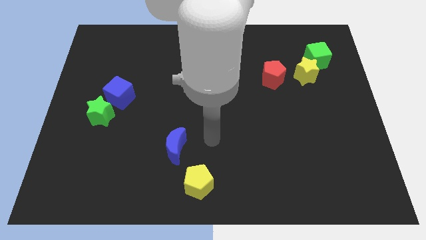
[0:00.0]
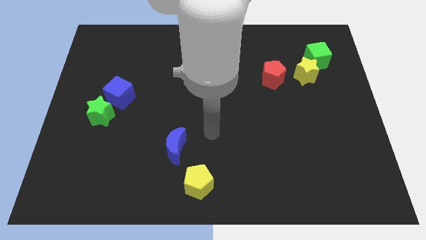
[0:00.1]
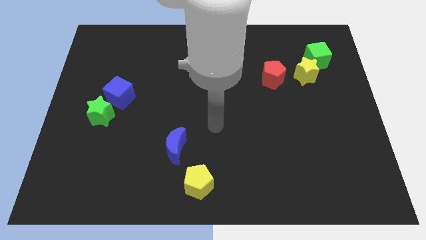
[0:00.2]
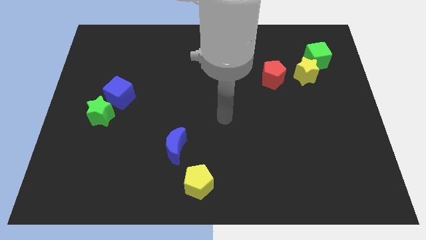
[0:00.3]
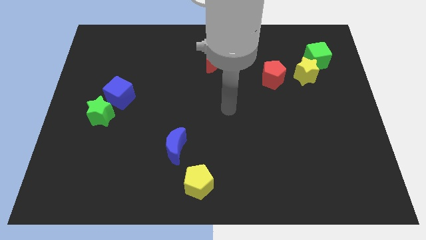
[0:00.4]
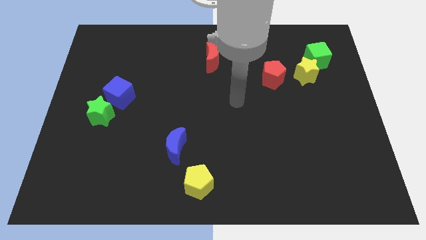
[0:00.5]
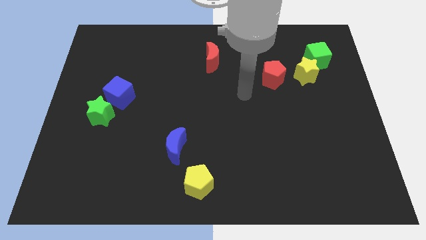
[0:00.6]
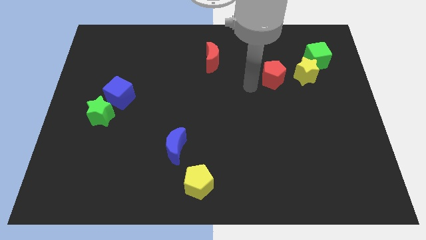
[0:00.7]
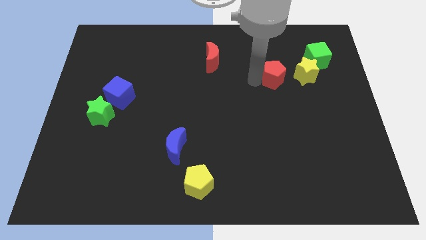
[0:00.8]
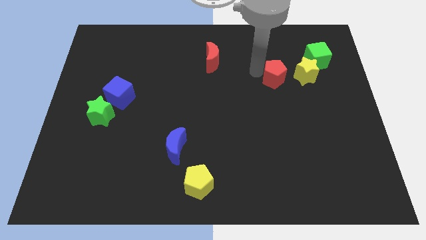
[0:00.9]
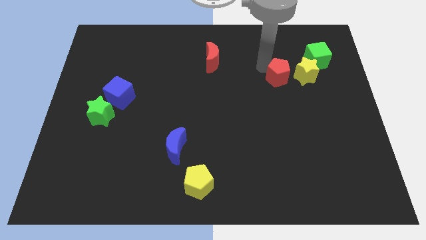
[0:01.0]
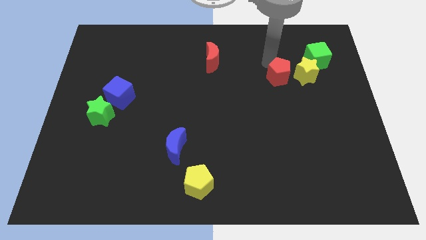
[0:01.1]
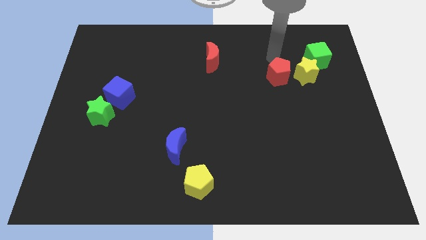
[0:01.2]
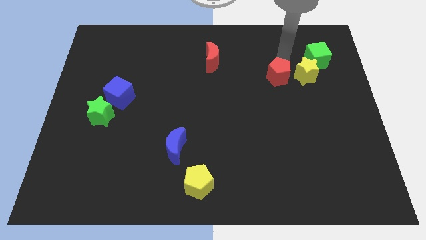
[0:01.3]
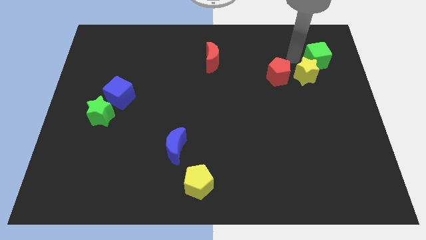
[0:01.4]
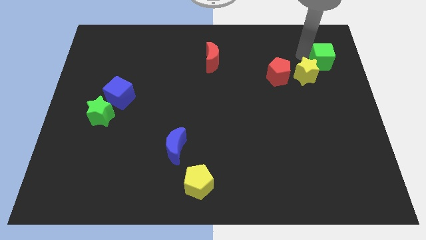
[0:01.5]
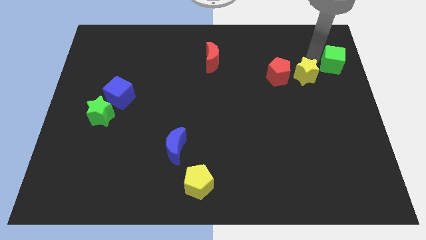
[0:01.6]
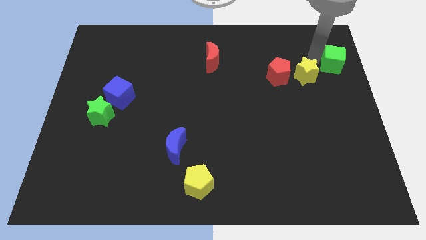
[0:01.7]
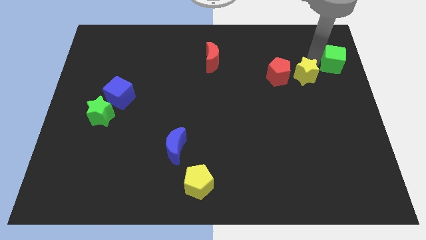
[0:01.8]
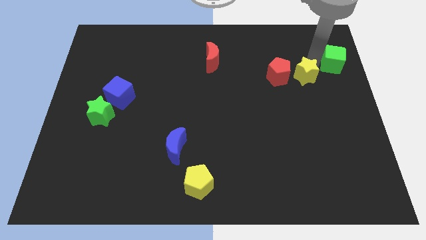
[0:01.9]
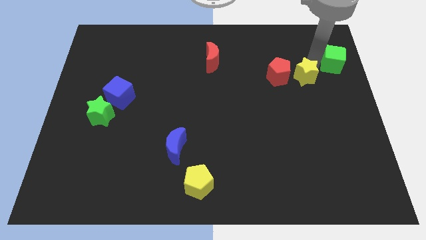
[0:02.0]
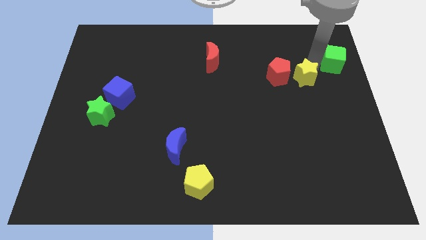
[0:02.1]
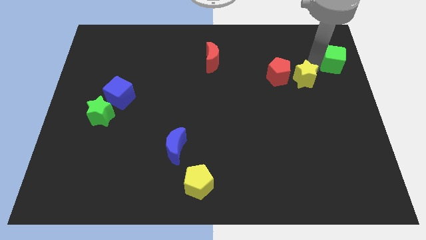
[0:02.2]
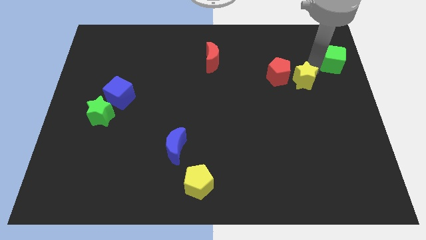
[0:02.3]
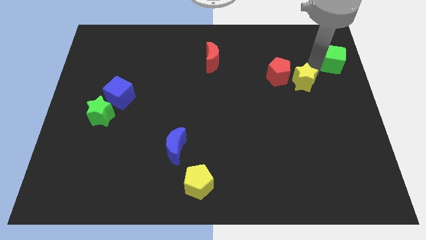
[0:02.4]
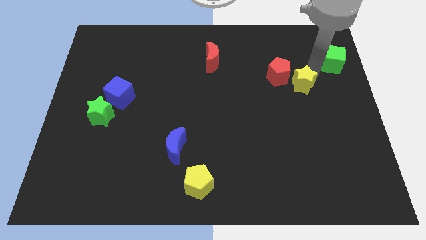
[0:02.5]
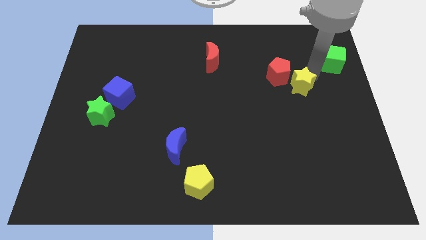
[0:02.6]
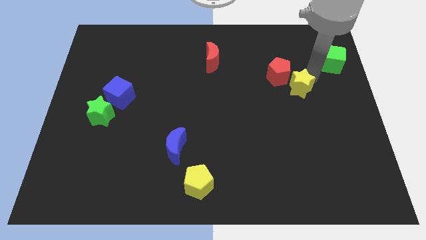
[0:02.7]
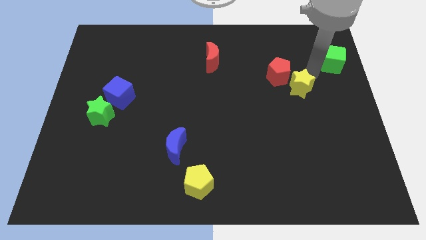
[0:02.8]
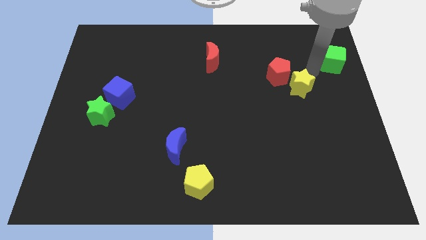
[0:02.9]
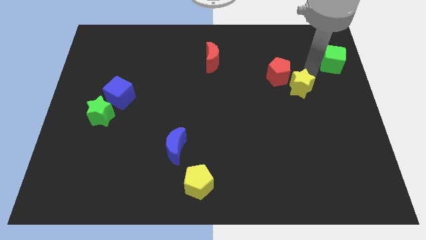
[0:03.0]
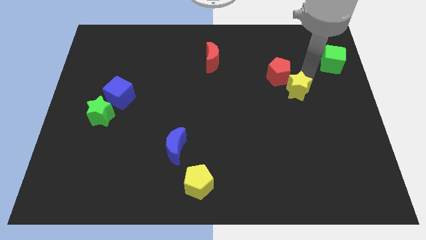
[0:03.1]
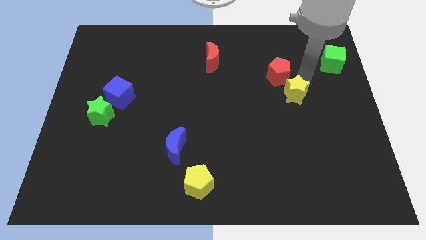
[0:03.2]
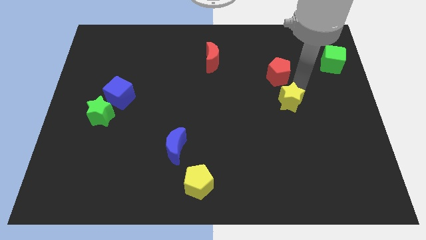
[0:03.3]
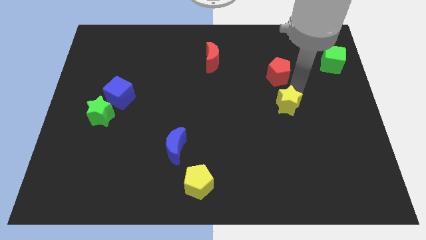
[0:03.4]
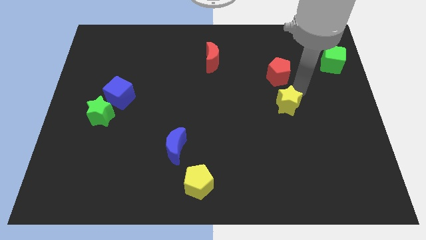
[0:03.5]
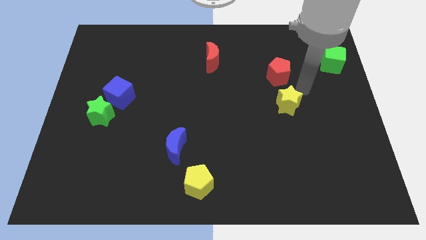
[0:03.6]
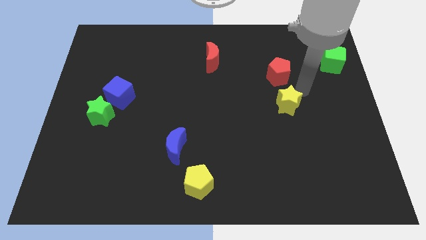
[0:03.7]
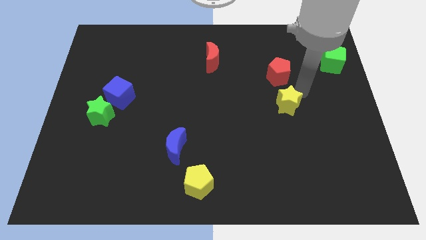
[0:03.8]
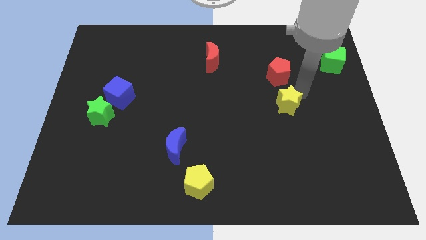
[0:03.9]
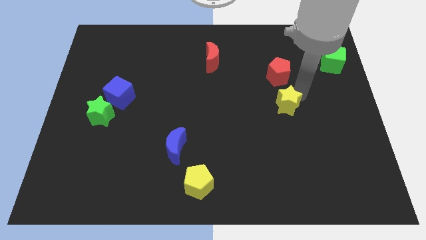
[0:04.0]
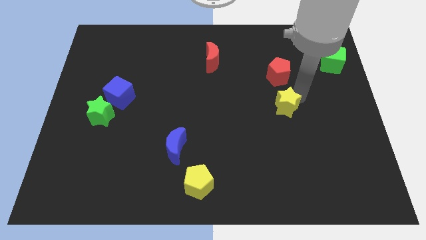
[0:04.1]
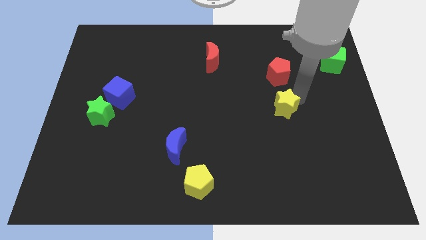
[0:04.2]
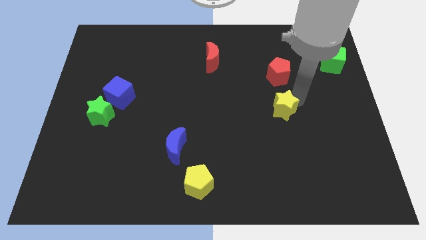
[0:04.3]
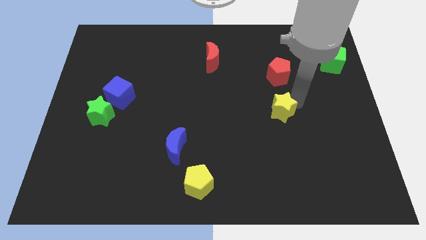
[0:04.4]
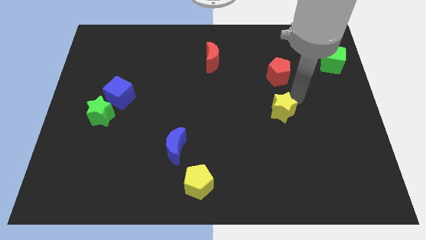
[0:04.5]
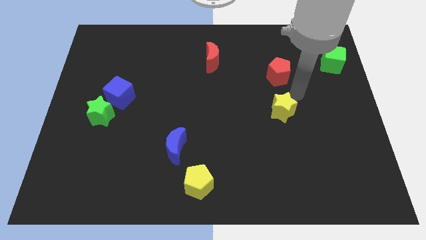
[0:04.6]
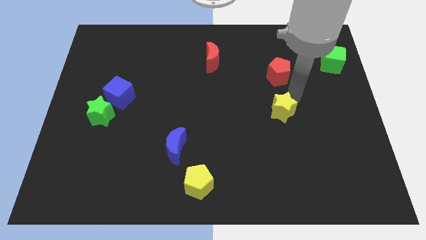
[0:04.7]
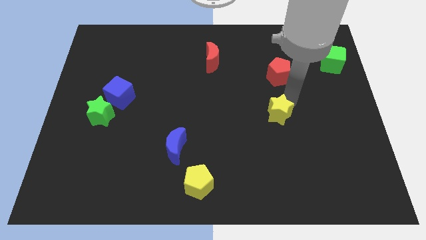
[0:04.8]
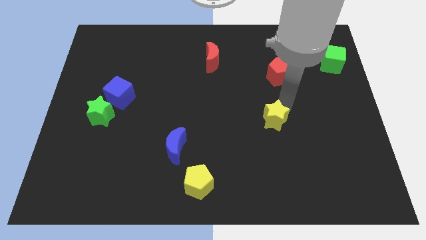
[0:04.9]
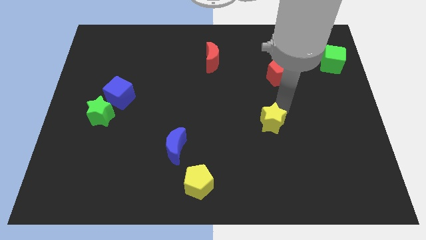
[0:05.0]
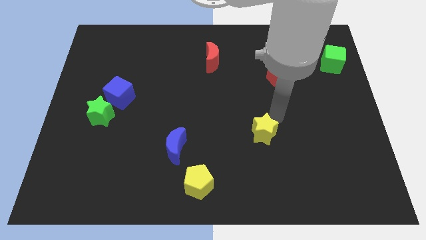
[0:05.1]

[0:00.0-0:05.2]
move the yellow star down and to the left diagonally

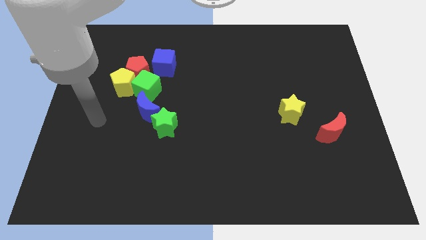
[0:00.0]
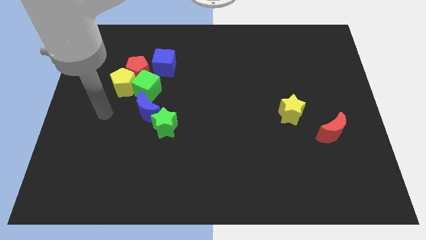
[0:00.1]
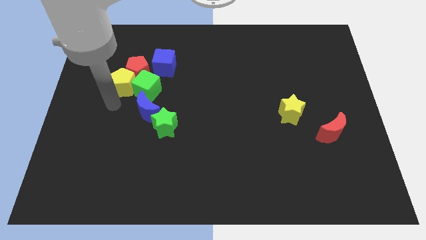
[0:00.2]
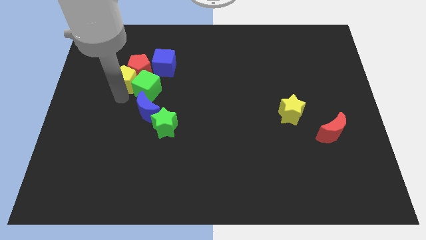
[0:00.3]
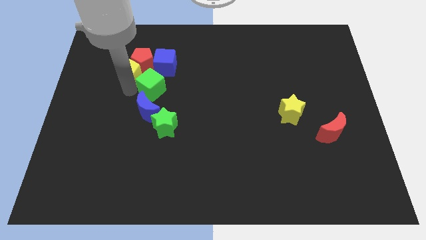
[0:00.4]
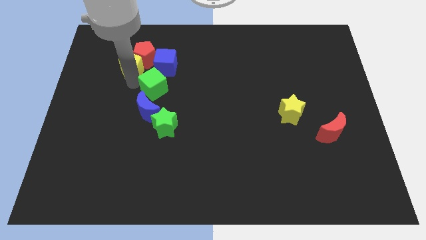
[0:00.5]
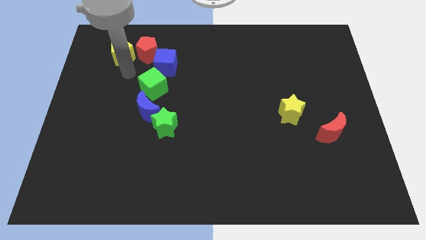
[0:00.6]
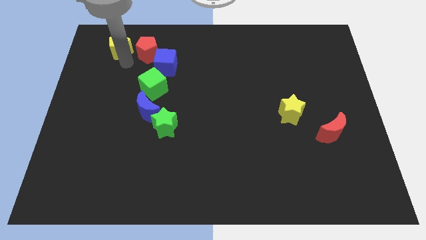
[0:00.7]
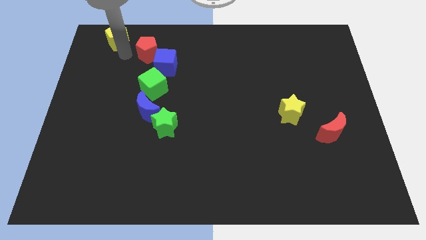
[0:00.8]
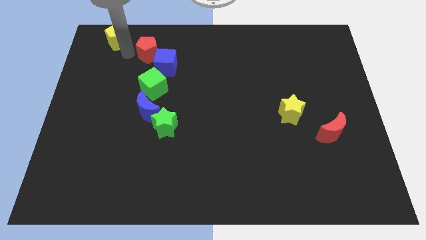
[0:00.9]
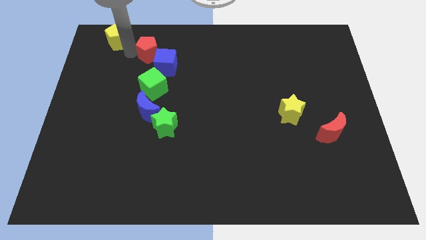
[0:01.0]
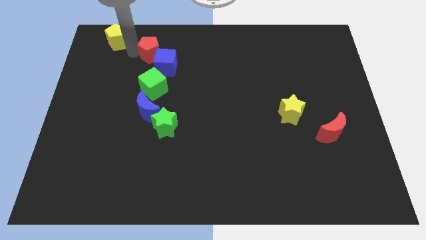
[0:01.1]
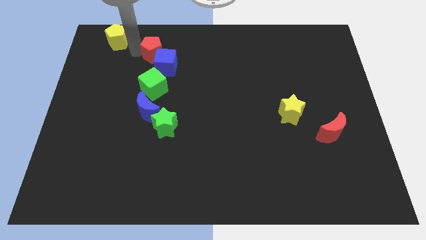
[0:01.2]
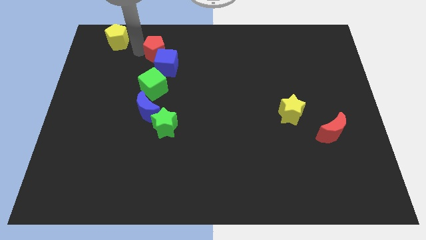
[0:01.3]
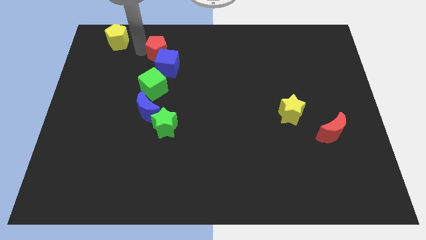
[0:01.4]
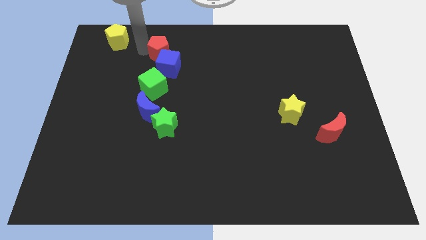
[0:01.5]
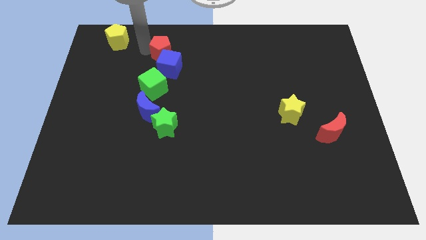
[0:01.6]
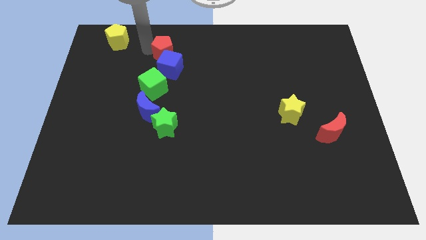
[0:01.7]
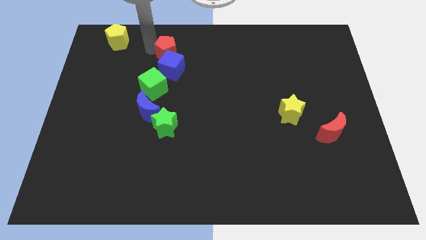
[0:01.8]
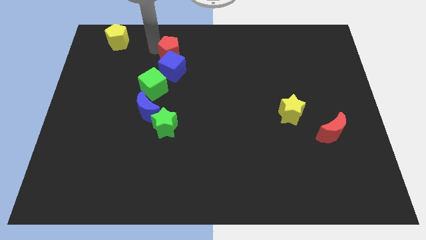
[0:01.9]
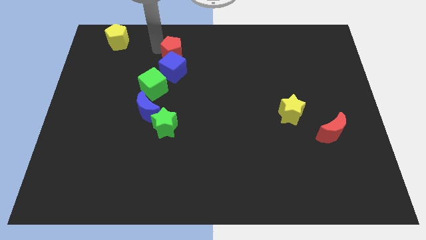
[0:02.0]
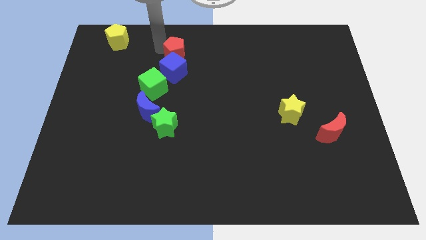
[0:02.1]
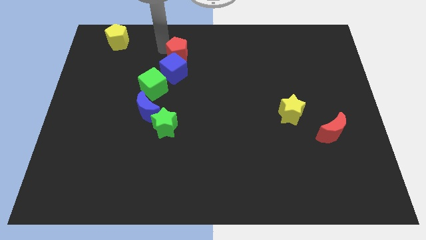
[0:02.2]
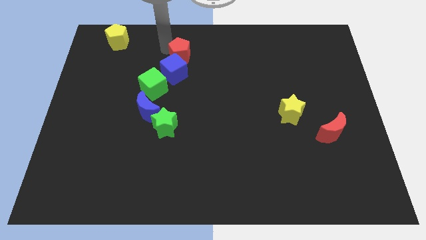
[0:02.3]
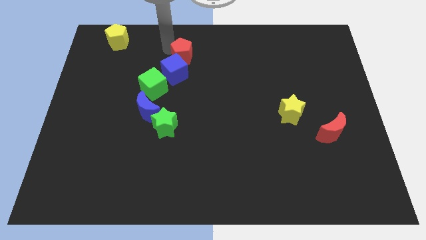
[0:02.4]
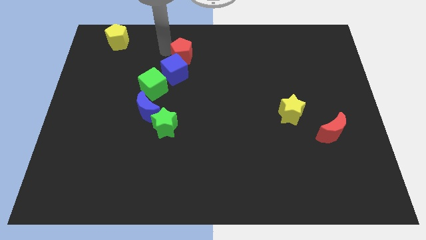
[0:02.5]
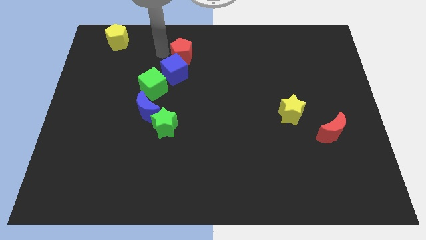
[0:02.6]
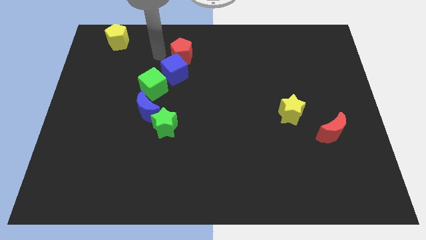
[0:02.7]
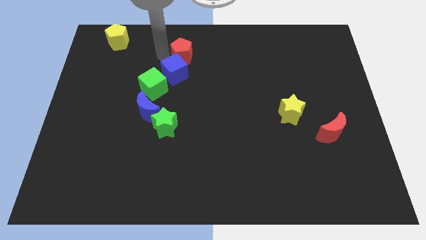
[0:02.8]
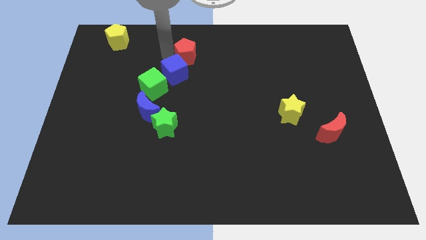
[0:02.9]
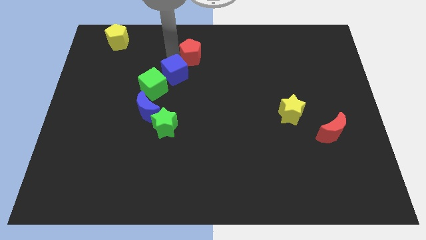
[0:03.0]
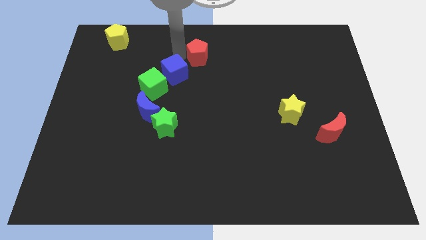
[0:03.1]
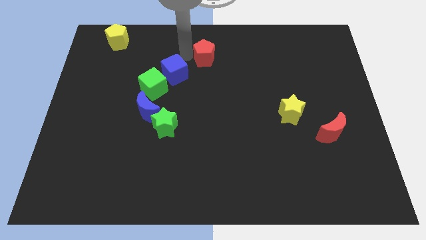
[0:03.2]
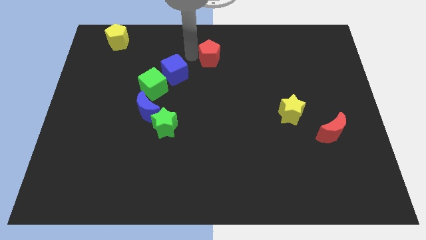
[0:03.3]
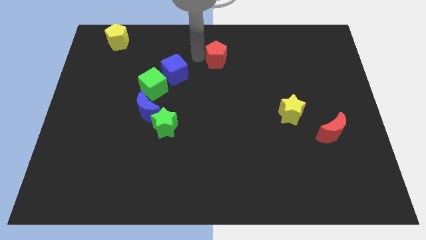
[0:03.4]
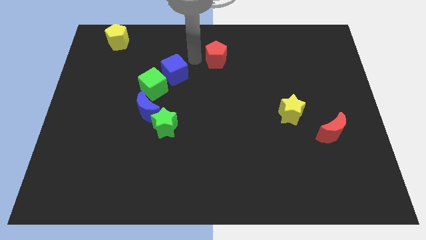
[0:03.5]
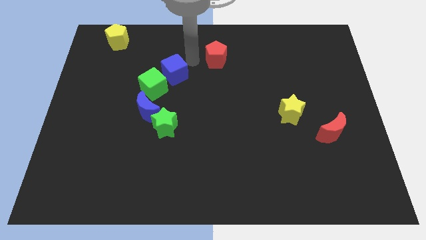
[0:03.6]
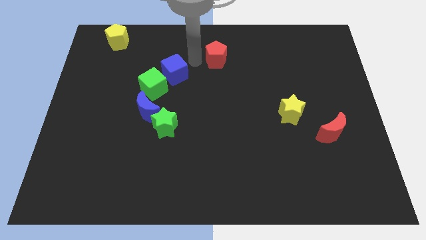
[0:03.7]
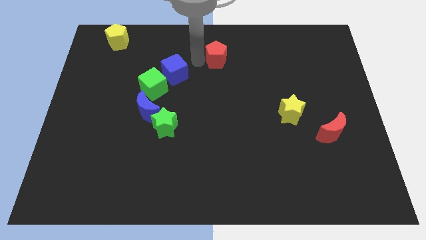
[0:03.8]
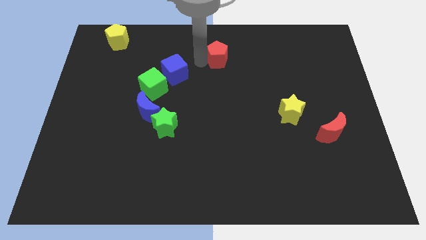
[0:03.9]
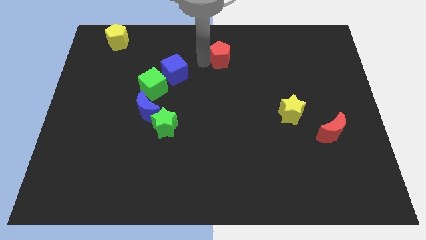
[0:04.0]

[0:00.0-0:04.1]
move the red pentagon right
